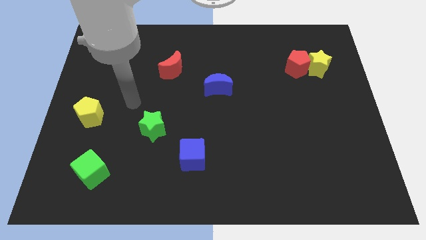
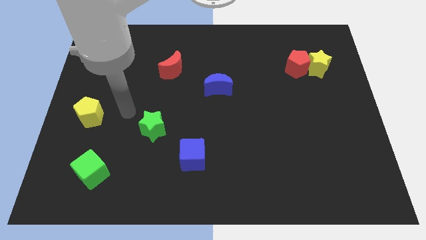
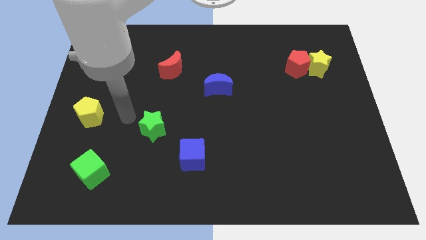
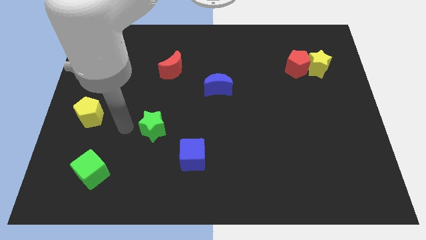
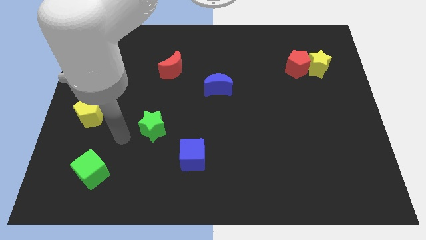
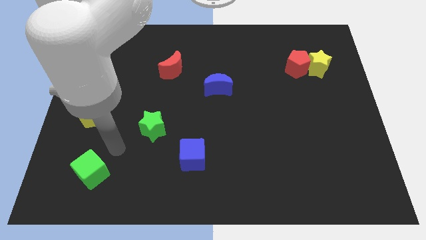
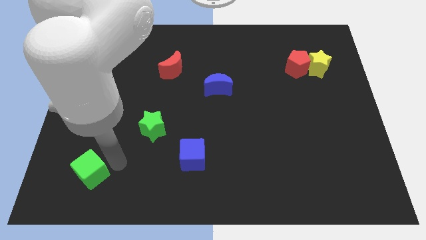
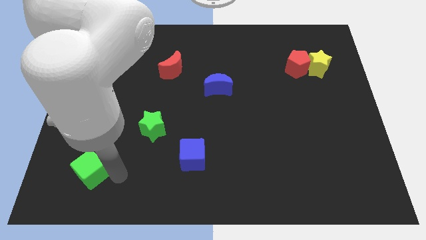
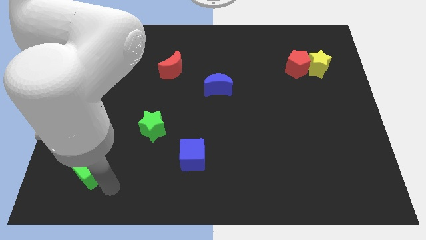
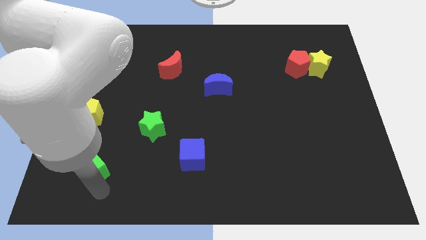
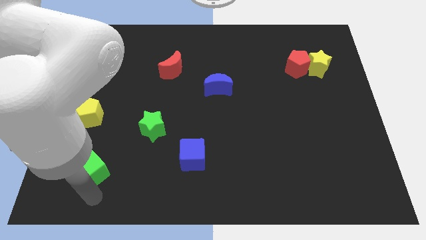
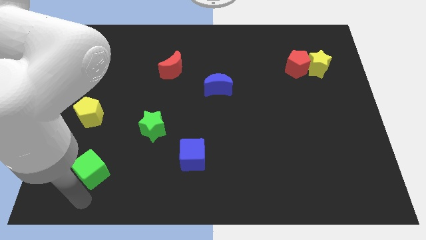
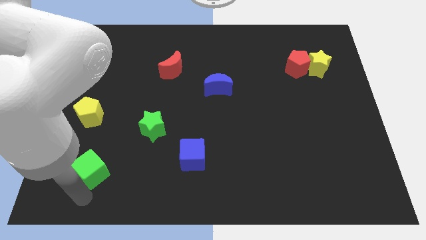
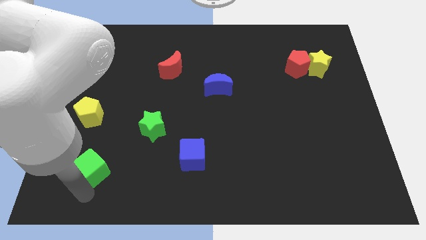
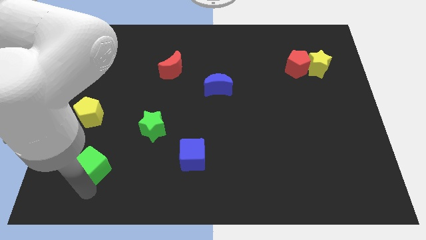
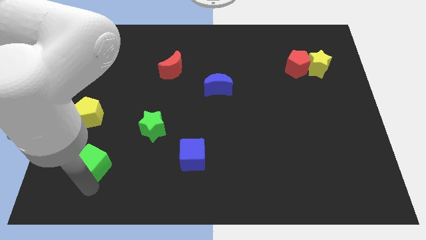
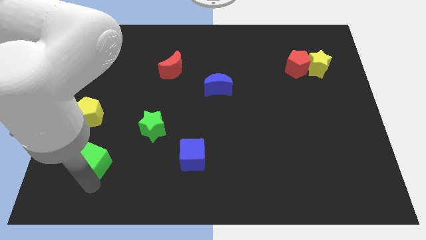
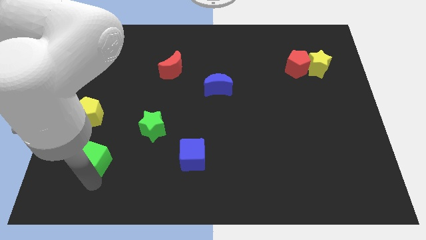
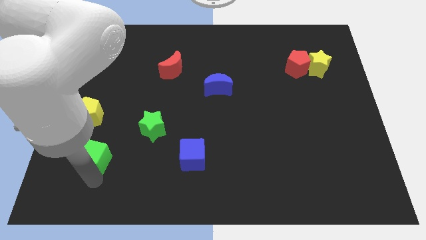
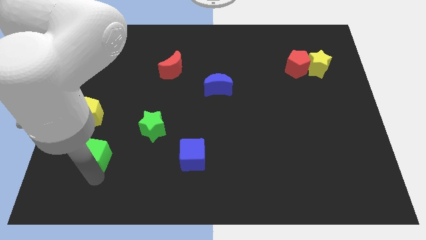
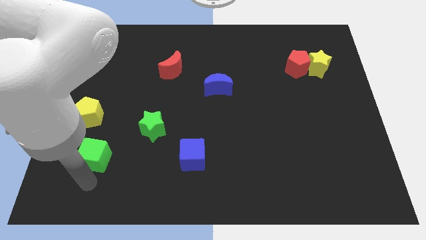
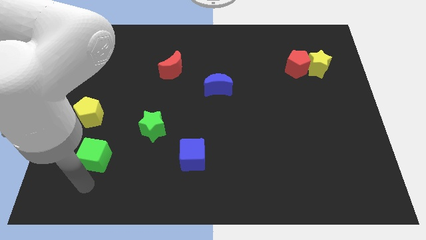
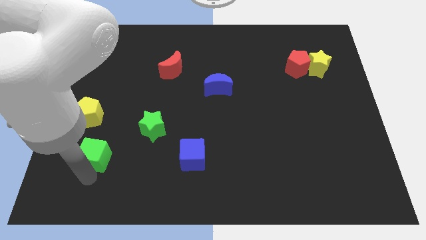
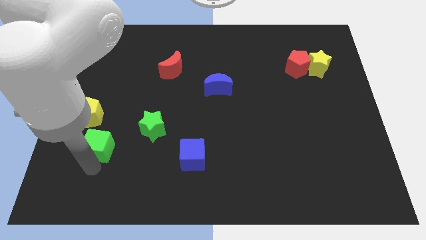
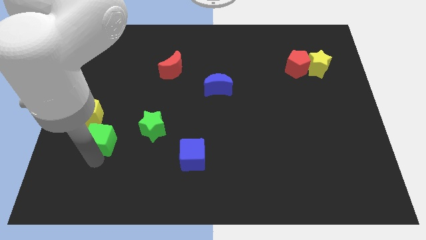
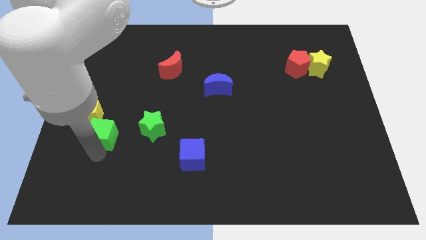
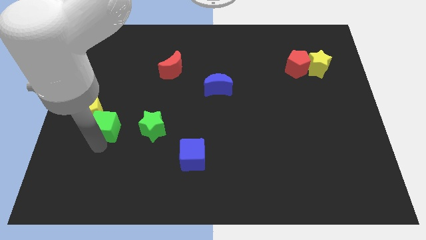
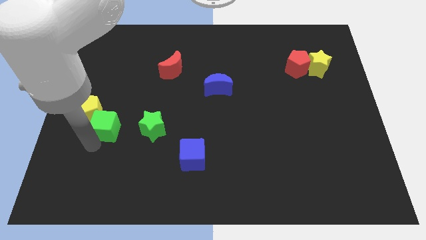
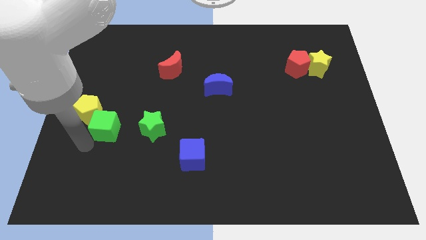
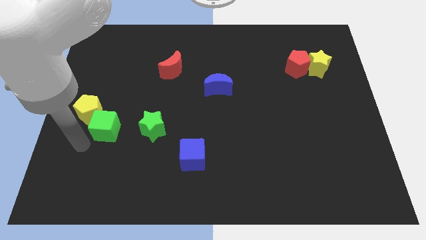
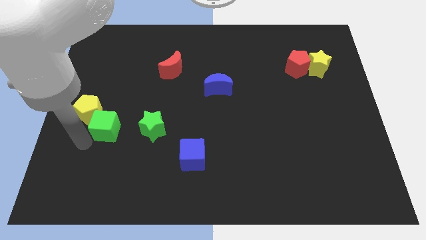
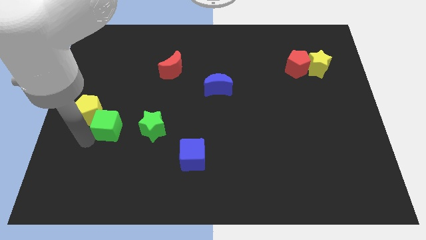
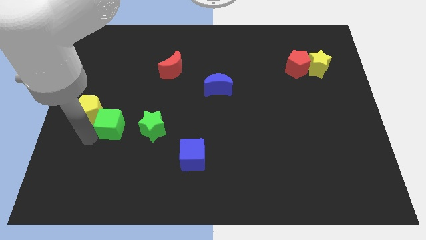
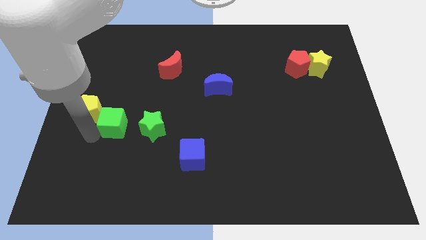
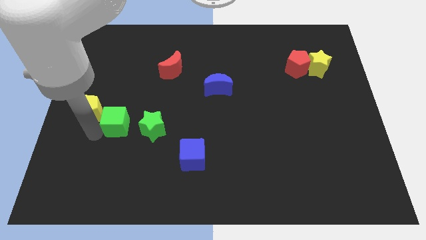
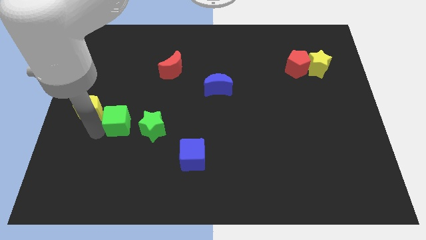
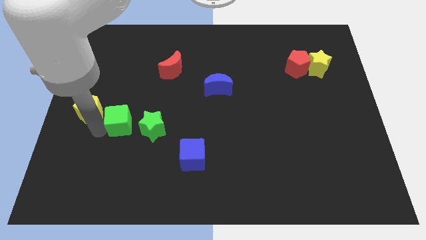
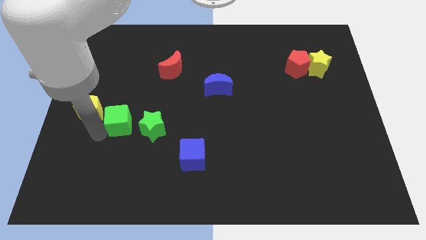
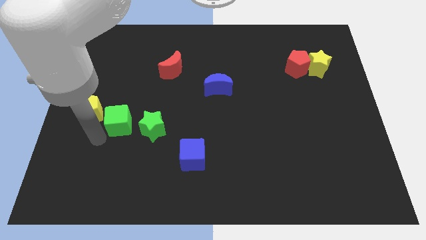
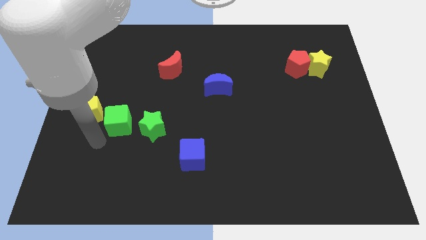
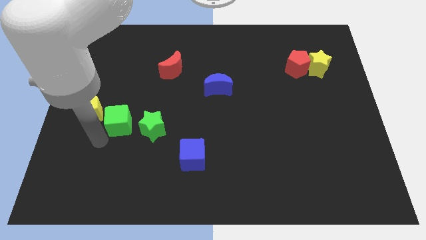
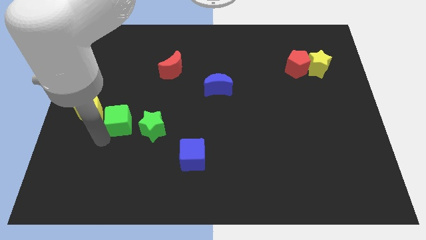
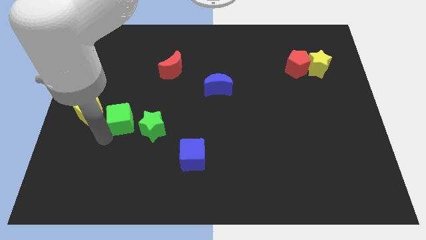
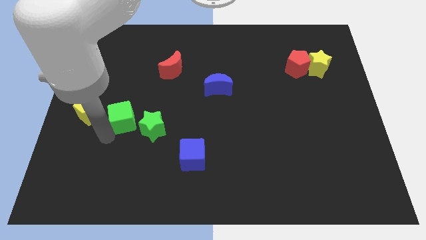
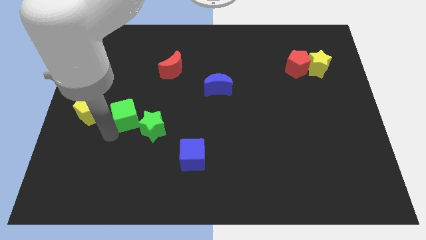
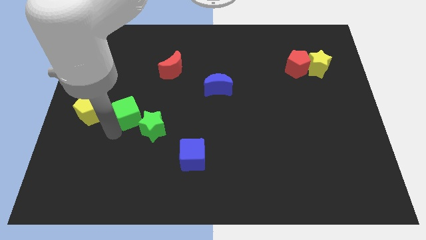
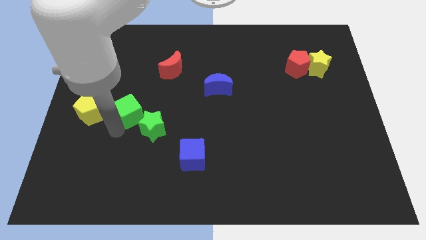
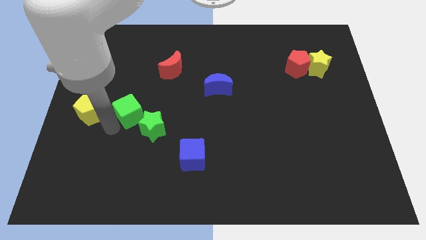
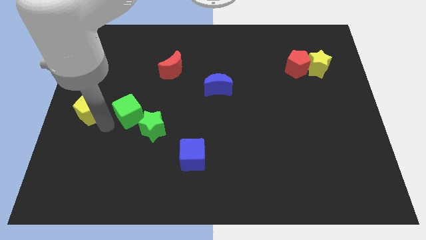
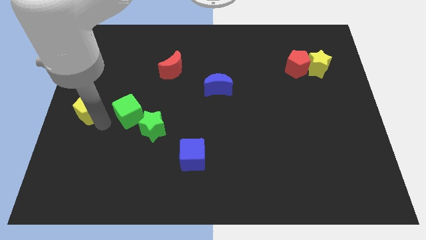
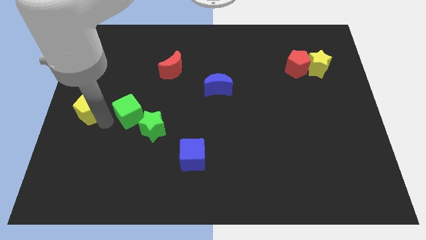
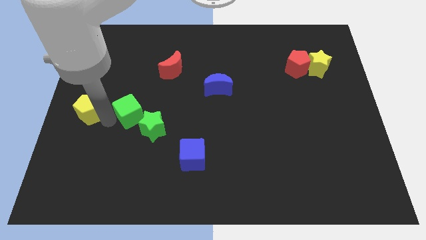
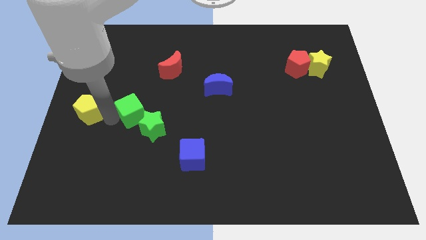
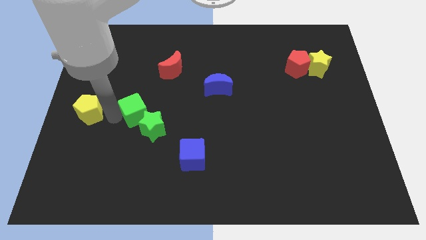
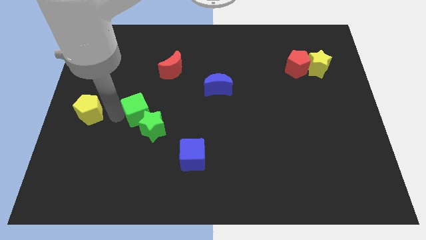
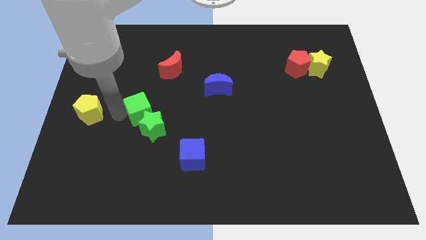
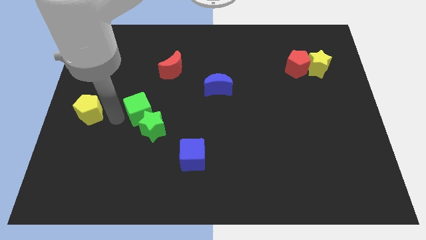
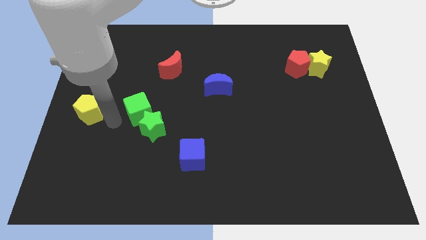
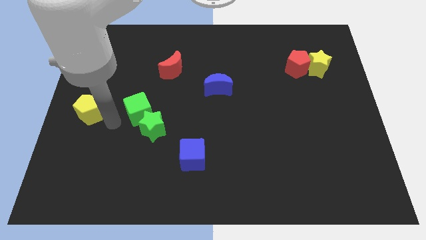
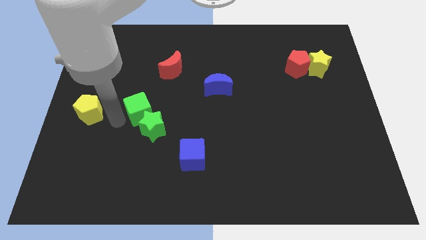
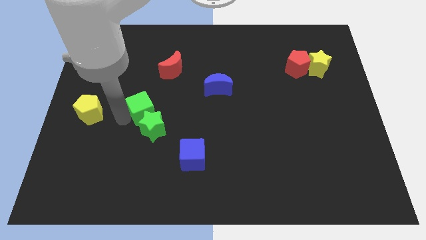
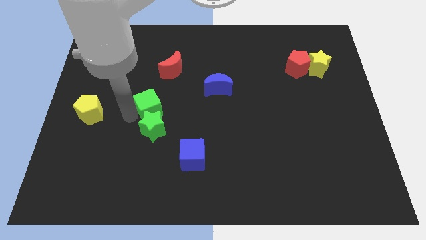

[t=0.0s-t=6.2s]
put the green cube to the bottom of the red moon
